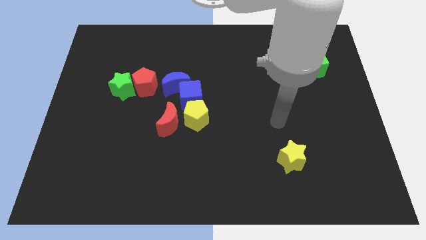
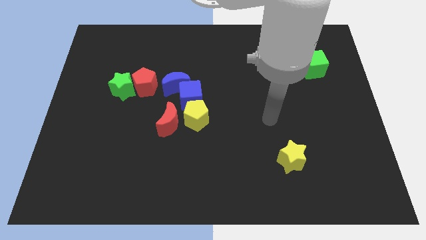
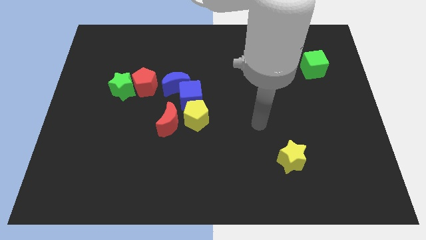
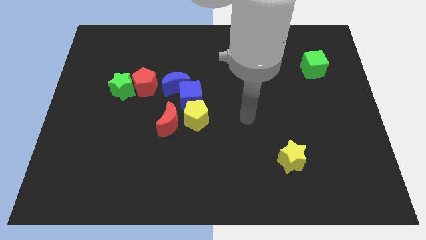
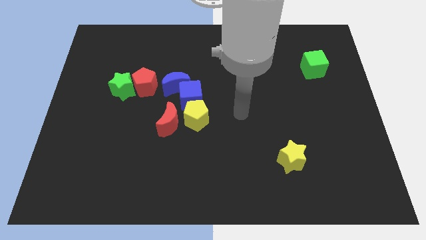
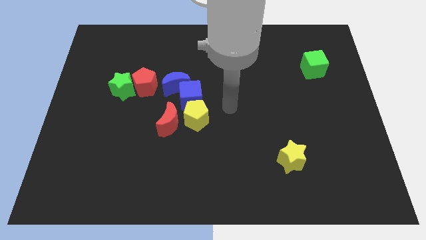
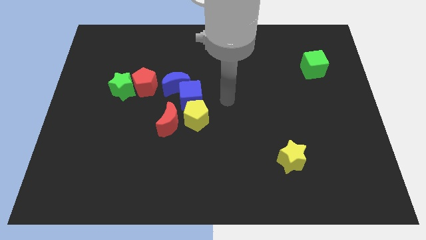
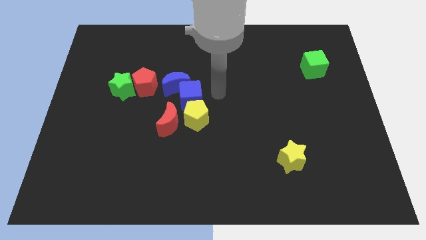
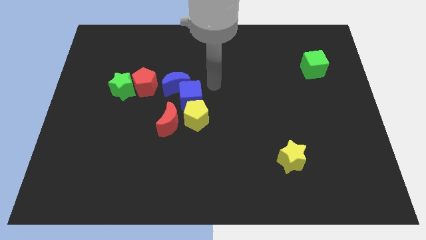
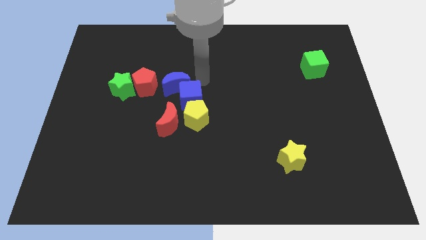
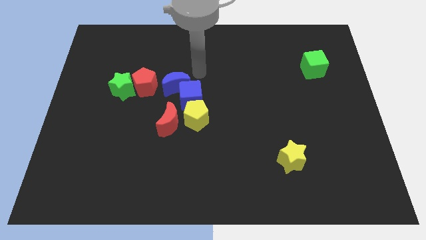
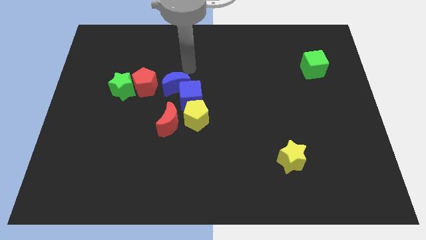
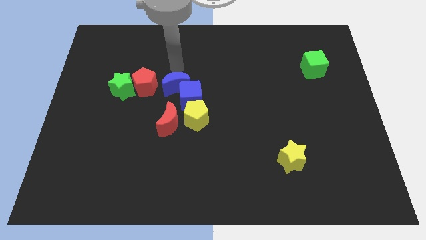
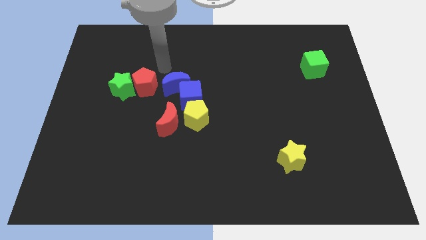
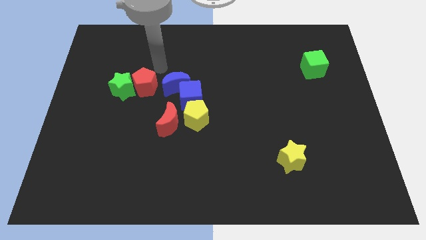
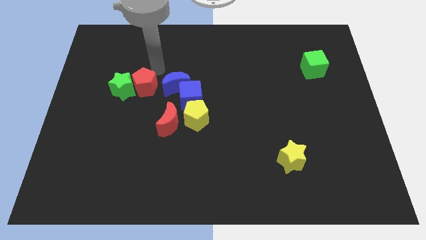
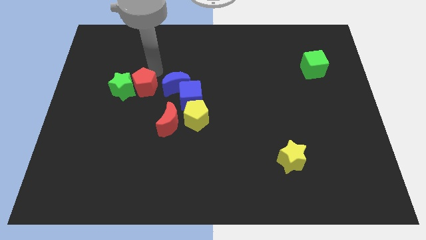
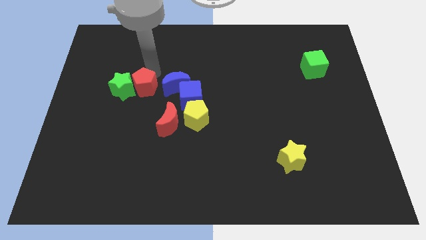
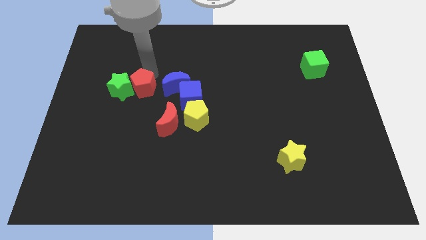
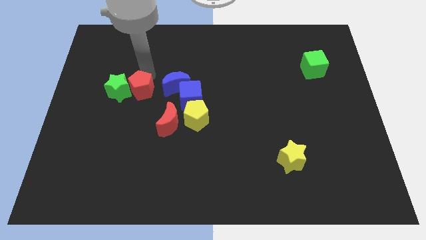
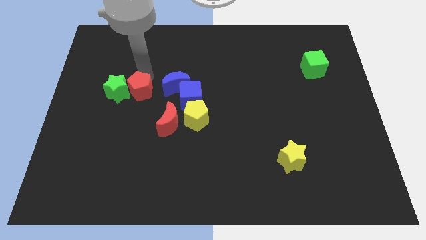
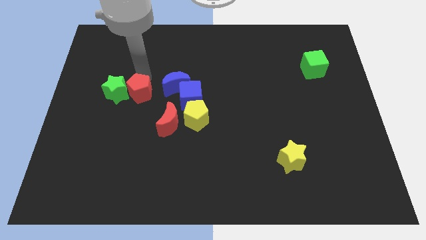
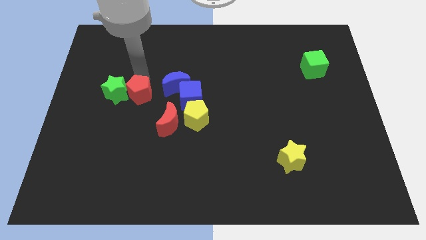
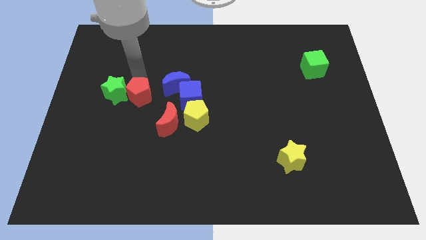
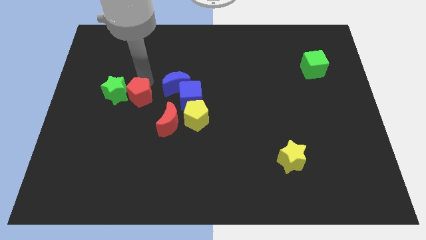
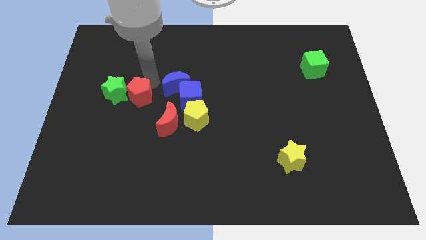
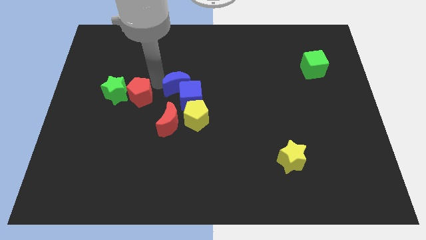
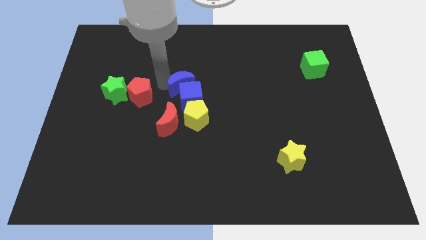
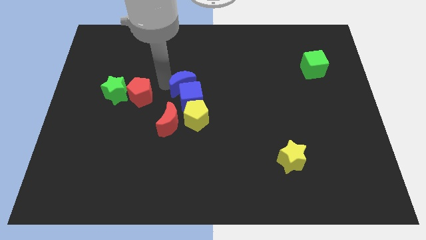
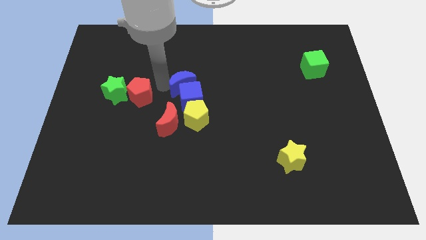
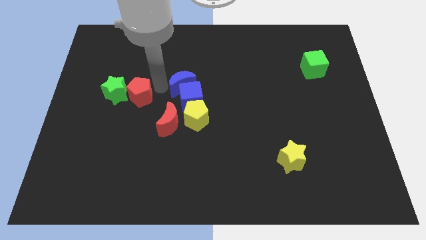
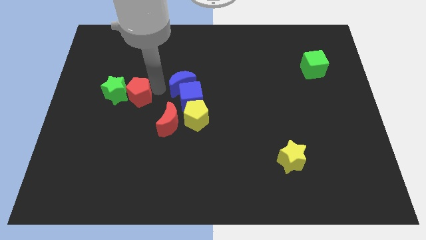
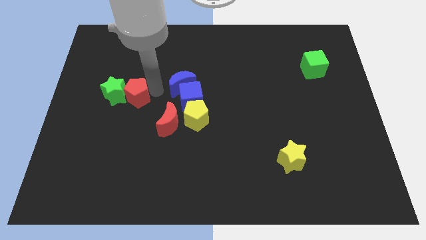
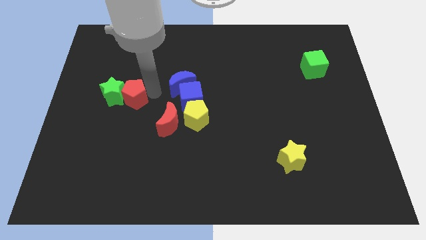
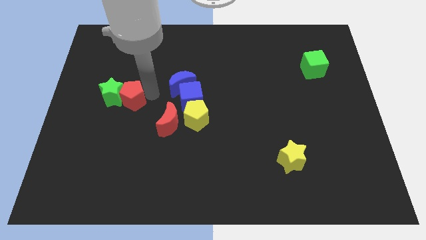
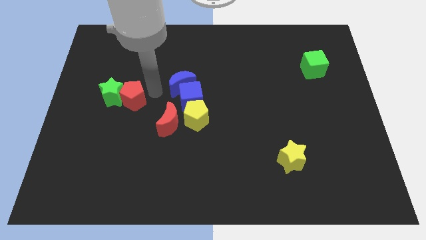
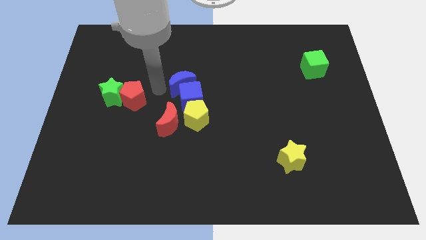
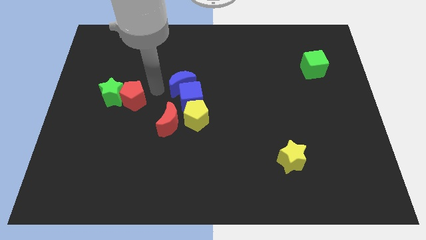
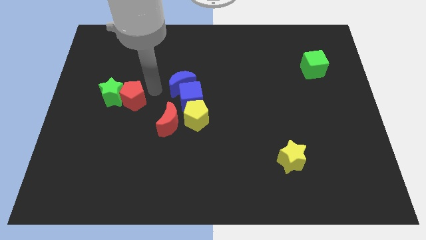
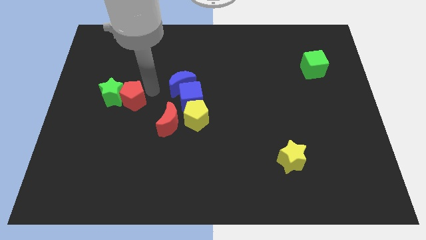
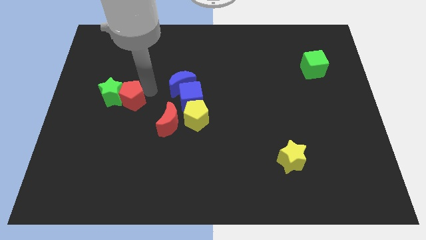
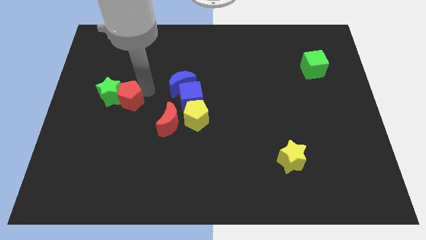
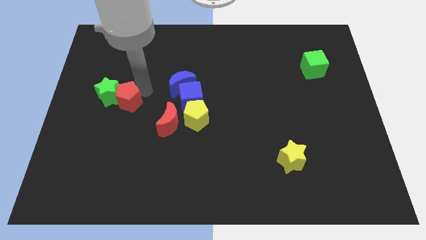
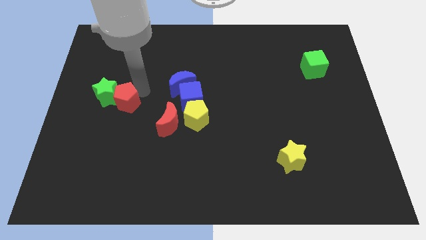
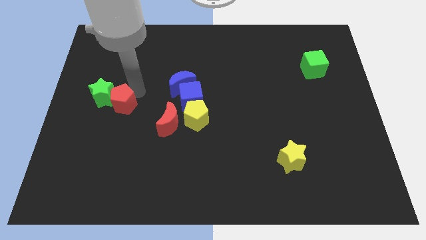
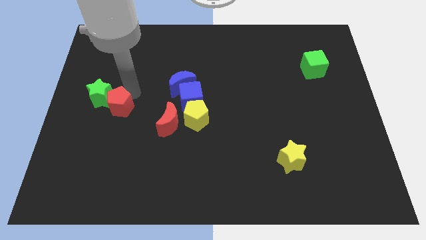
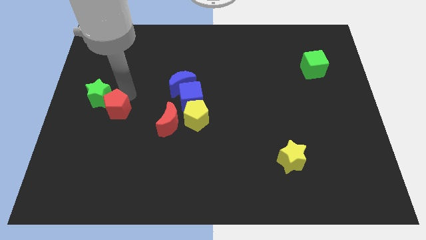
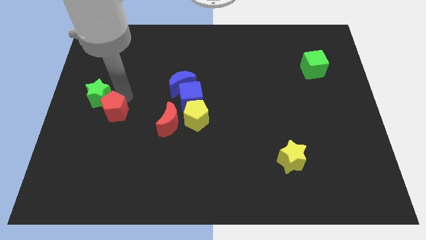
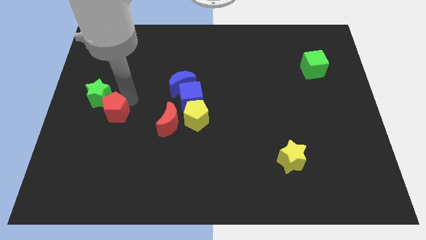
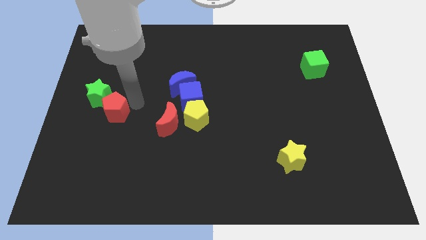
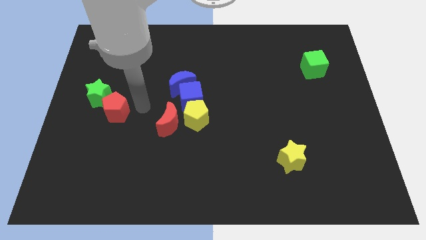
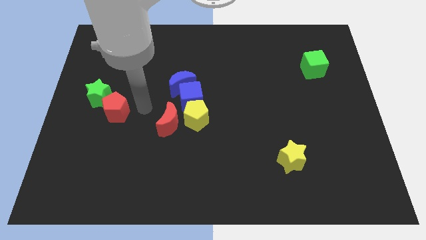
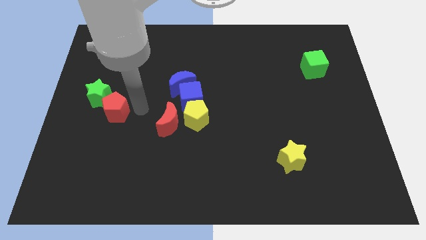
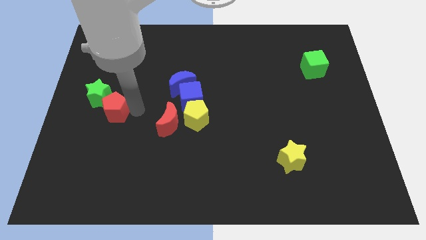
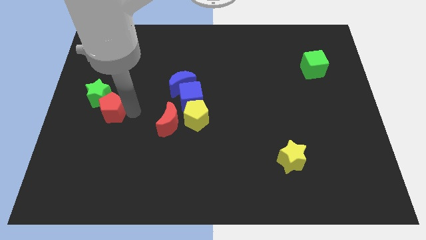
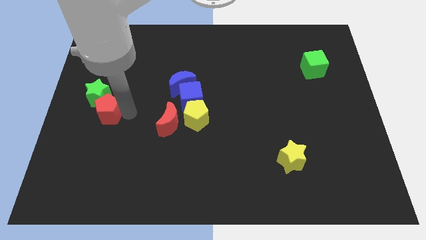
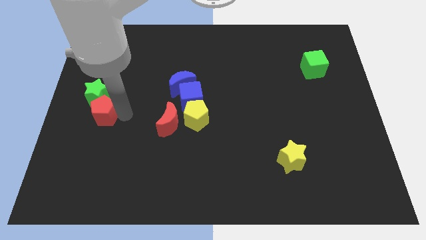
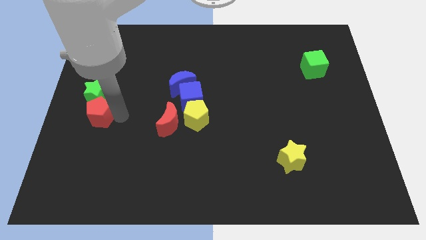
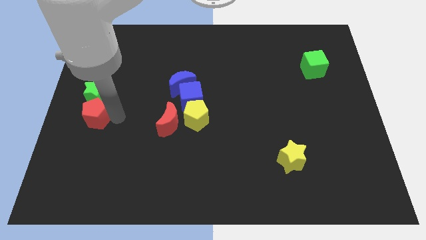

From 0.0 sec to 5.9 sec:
move the red pentagon to the bottom left of the green star
